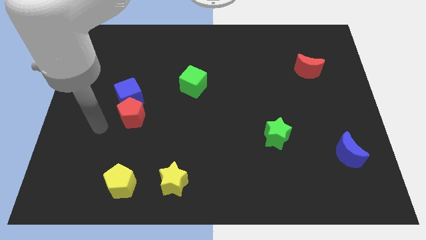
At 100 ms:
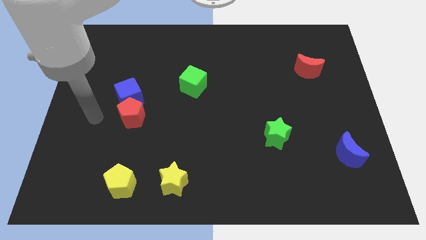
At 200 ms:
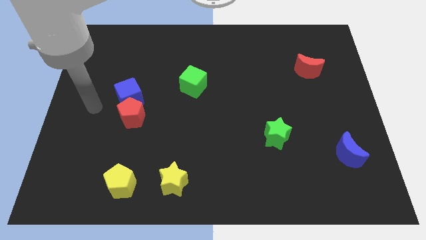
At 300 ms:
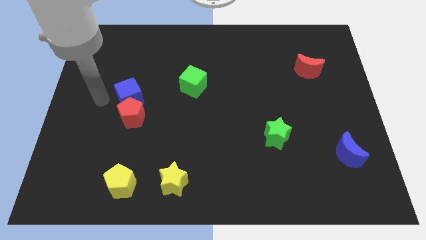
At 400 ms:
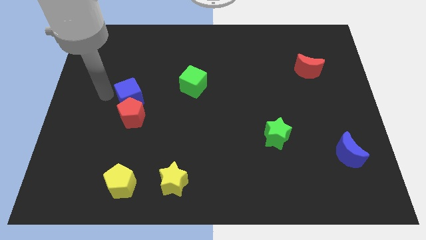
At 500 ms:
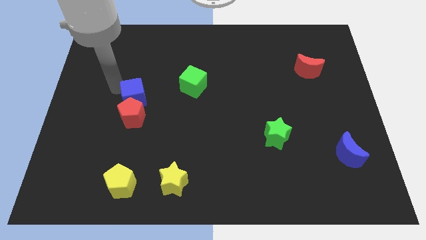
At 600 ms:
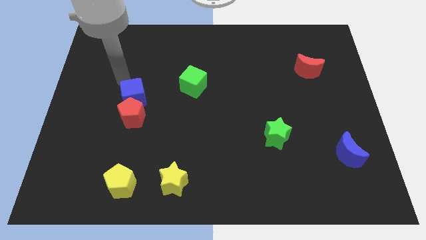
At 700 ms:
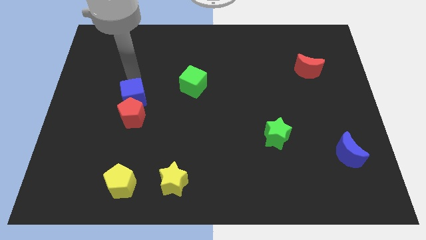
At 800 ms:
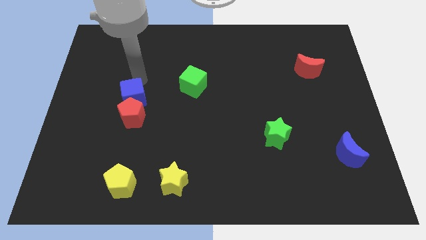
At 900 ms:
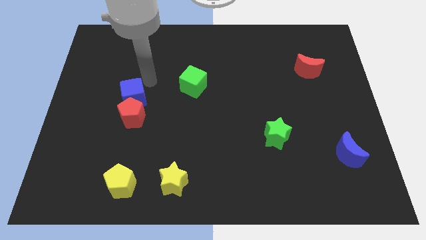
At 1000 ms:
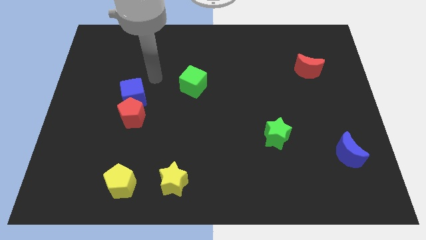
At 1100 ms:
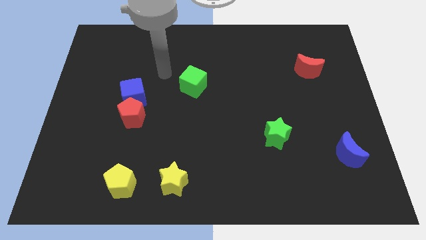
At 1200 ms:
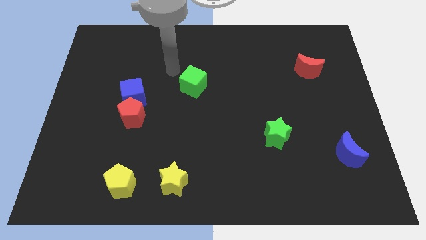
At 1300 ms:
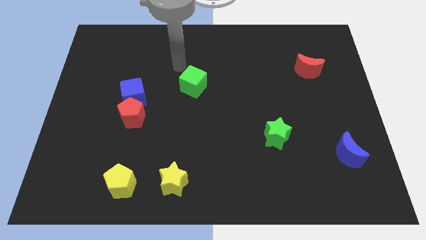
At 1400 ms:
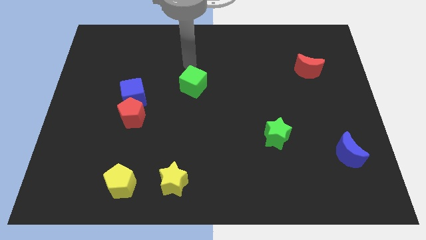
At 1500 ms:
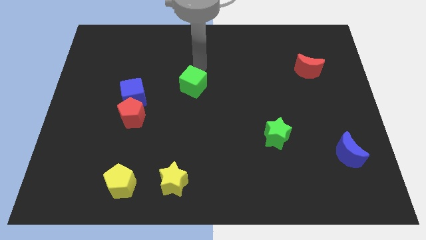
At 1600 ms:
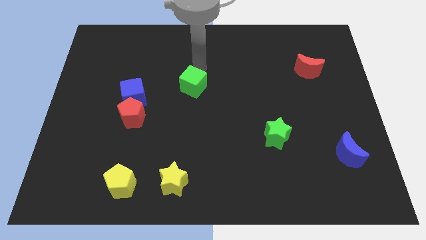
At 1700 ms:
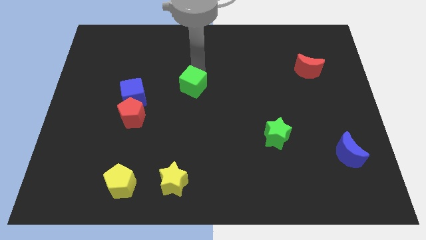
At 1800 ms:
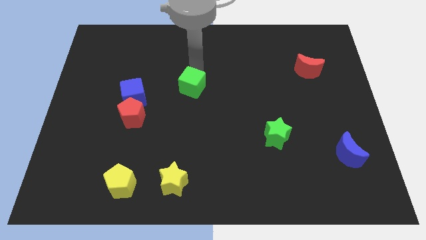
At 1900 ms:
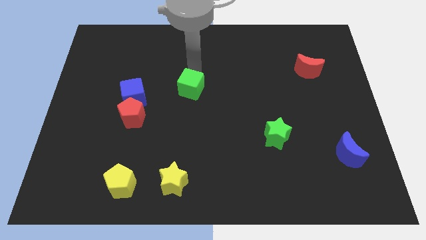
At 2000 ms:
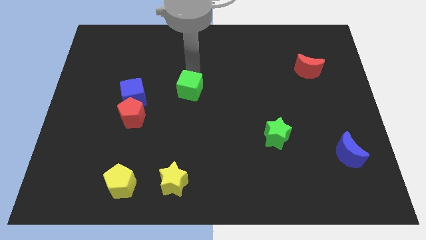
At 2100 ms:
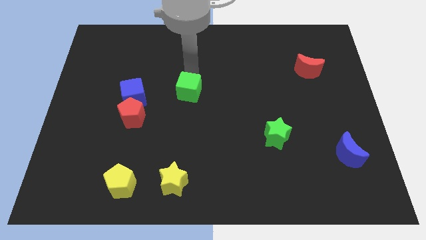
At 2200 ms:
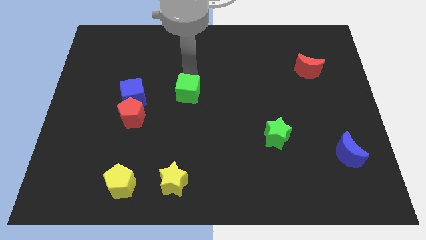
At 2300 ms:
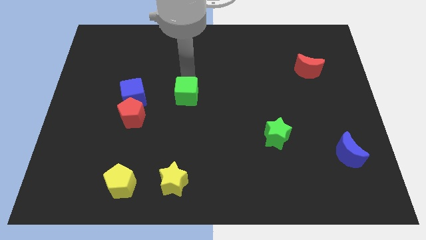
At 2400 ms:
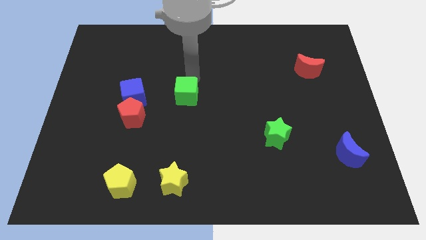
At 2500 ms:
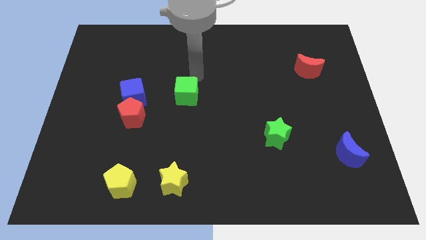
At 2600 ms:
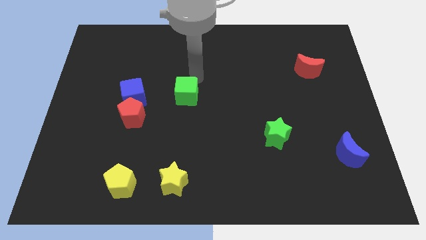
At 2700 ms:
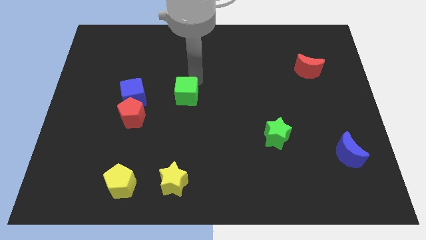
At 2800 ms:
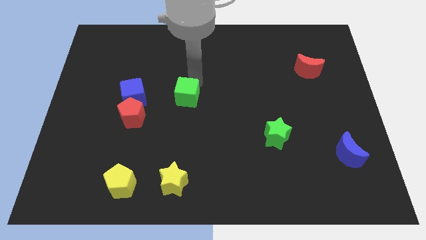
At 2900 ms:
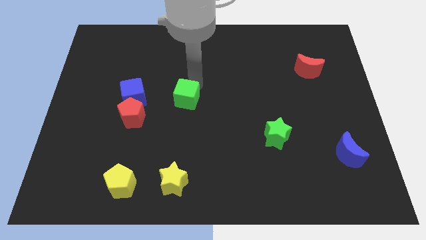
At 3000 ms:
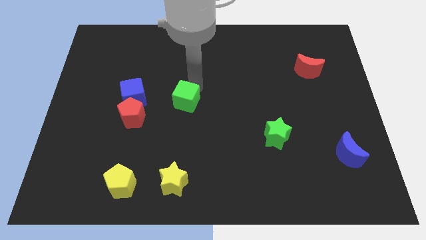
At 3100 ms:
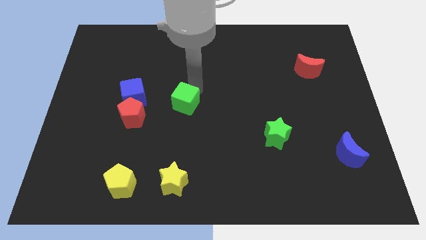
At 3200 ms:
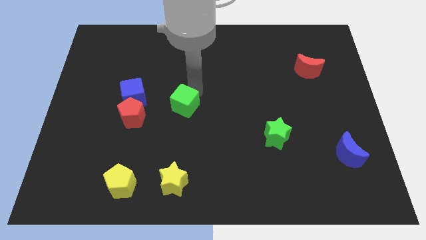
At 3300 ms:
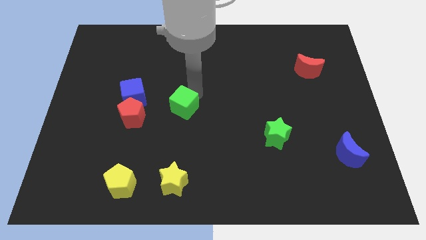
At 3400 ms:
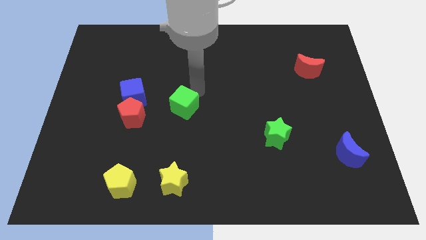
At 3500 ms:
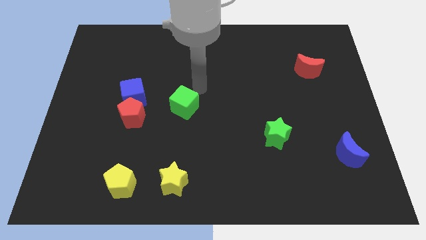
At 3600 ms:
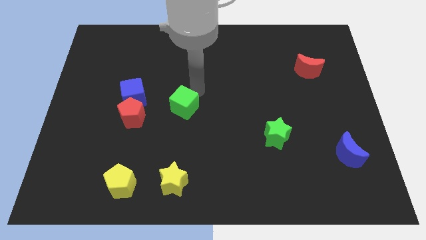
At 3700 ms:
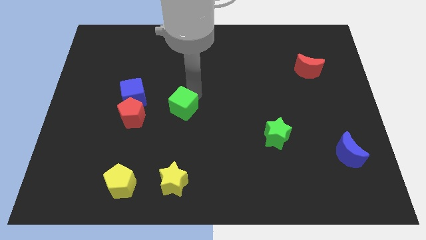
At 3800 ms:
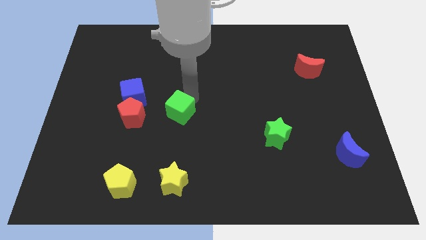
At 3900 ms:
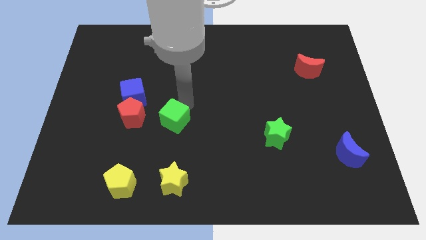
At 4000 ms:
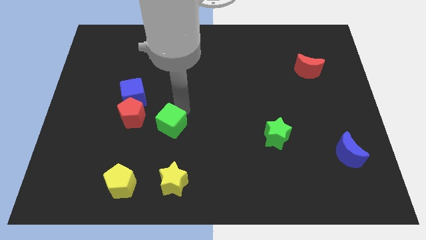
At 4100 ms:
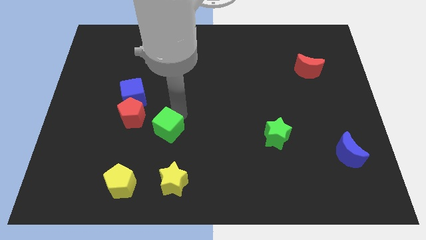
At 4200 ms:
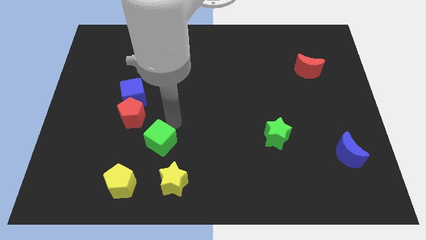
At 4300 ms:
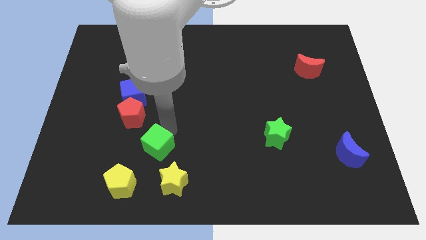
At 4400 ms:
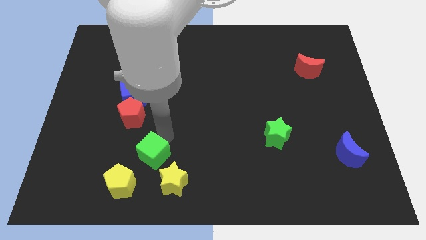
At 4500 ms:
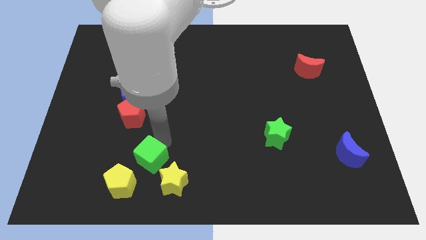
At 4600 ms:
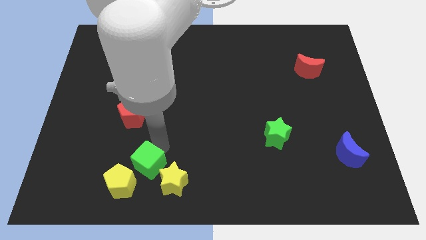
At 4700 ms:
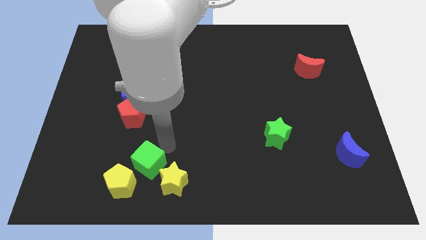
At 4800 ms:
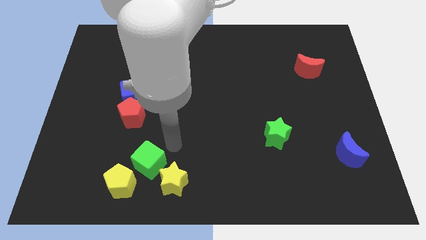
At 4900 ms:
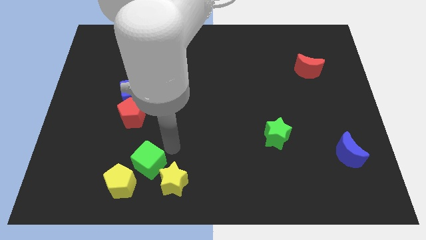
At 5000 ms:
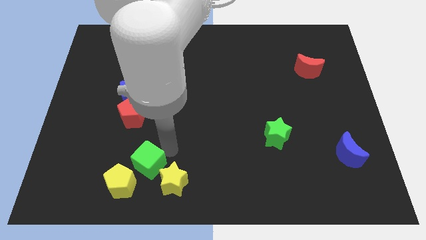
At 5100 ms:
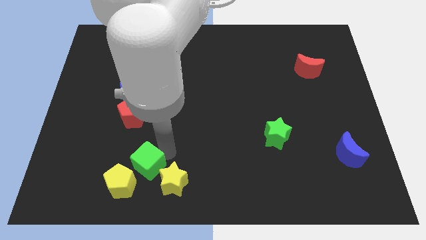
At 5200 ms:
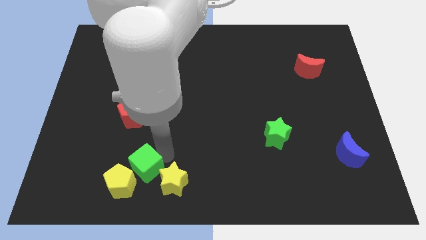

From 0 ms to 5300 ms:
move the green cube next to the yellow pentagon

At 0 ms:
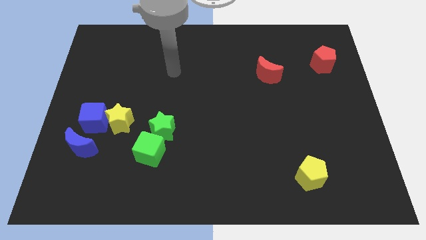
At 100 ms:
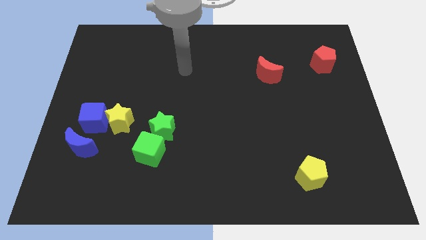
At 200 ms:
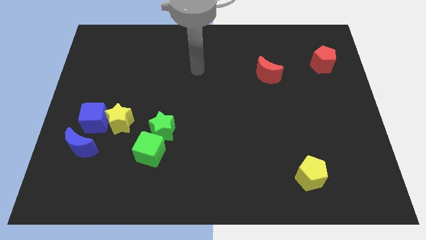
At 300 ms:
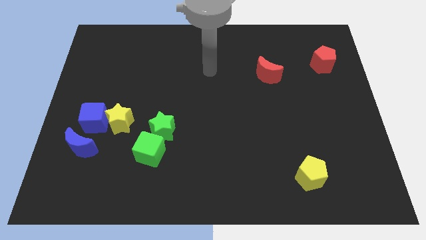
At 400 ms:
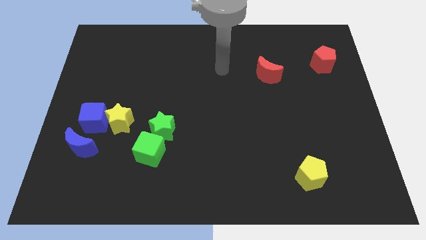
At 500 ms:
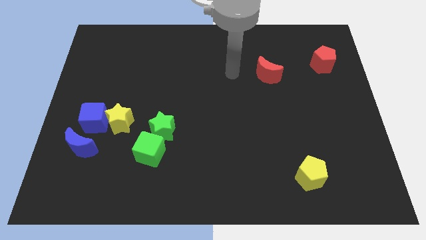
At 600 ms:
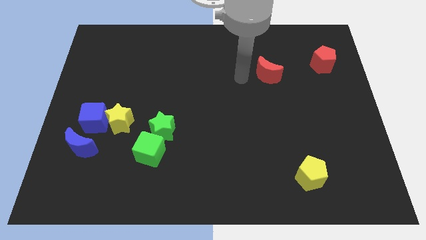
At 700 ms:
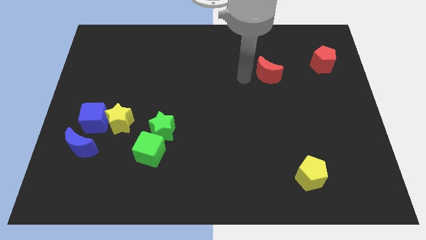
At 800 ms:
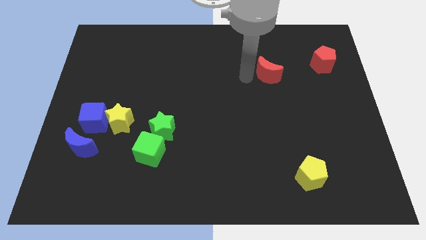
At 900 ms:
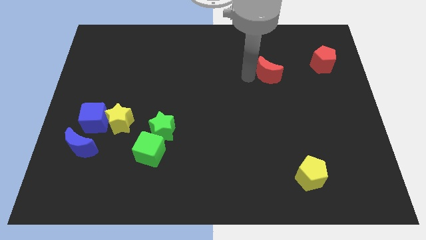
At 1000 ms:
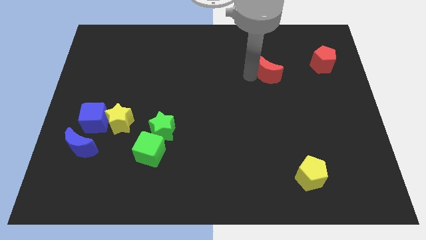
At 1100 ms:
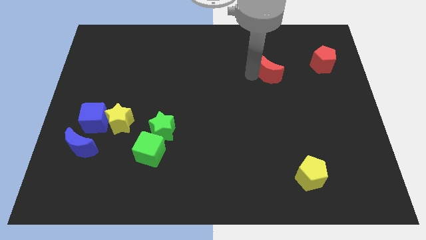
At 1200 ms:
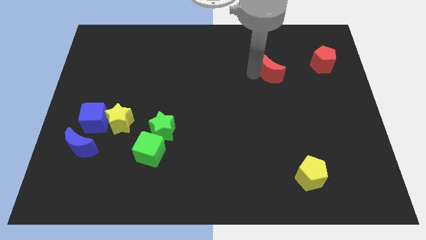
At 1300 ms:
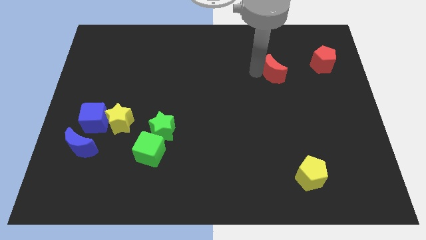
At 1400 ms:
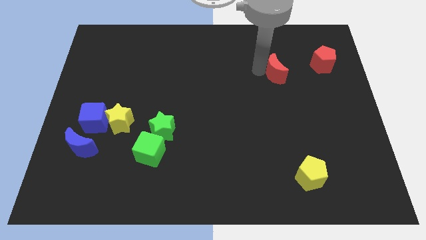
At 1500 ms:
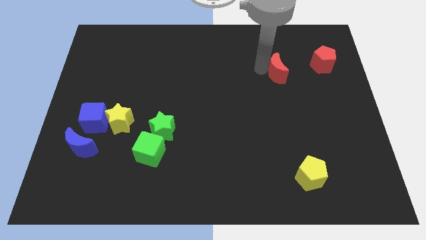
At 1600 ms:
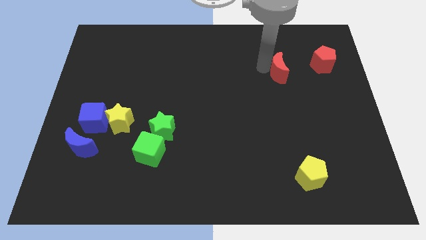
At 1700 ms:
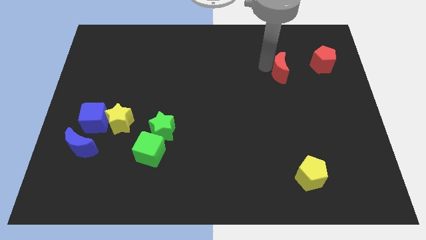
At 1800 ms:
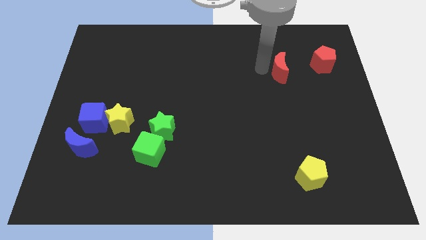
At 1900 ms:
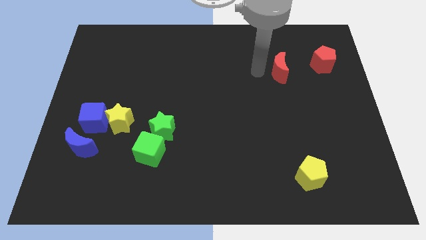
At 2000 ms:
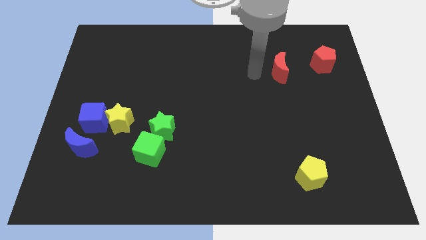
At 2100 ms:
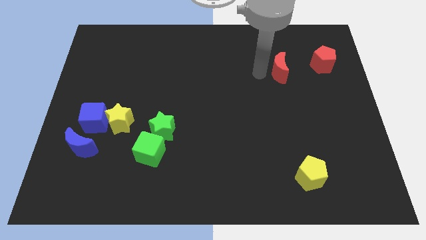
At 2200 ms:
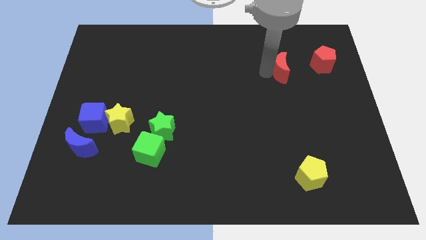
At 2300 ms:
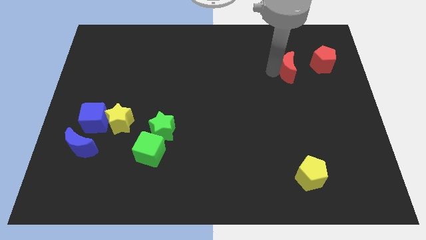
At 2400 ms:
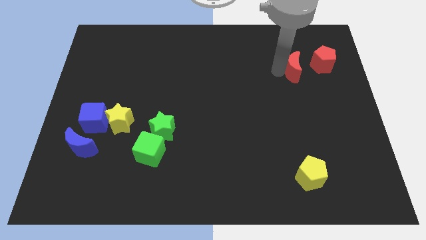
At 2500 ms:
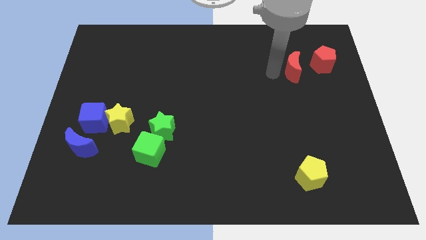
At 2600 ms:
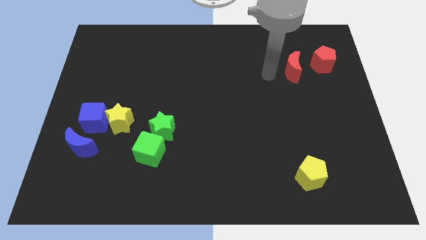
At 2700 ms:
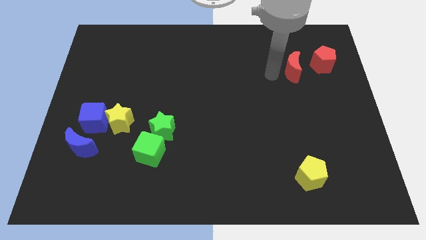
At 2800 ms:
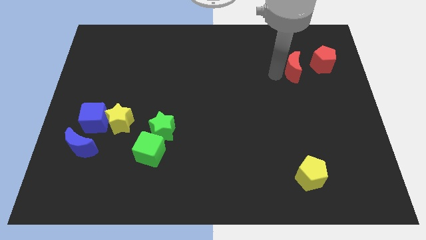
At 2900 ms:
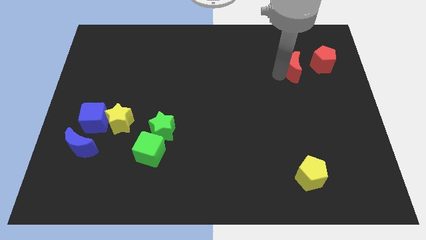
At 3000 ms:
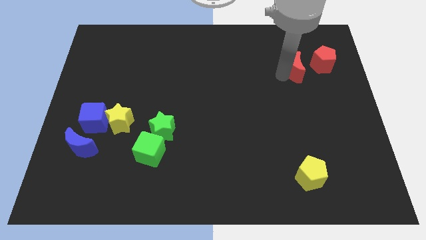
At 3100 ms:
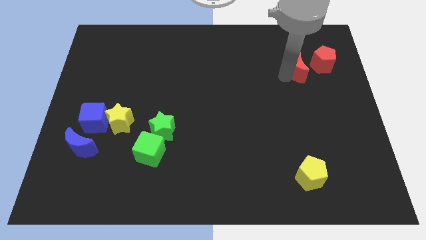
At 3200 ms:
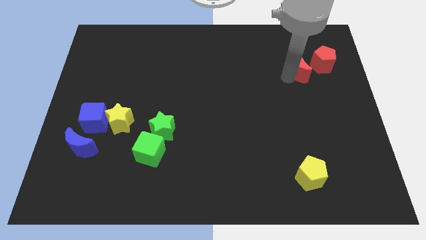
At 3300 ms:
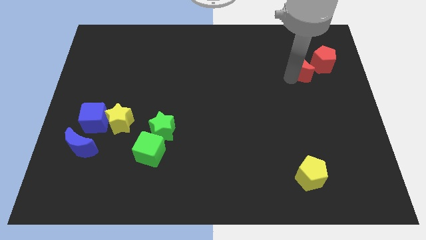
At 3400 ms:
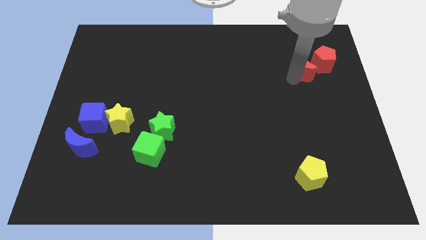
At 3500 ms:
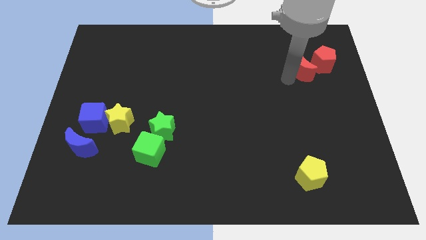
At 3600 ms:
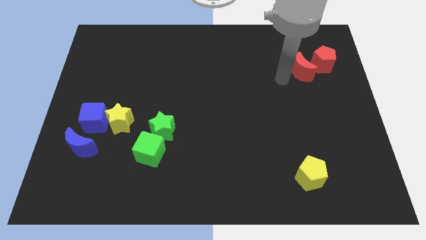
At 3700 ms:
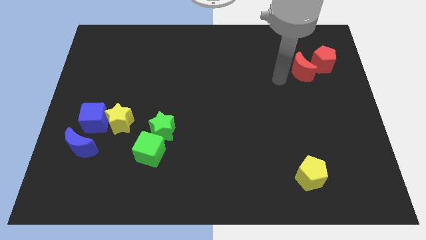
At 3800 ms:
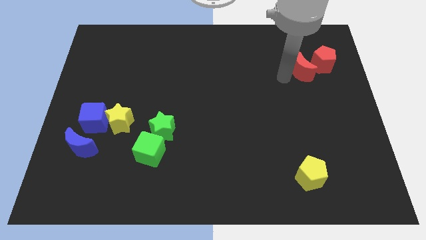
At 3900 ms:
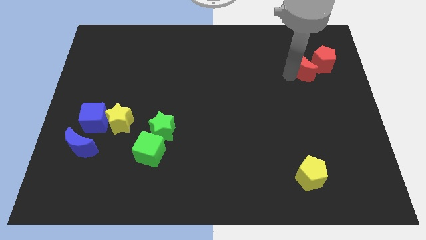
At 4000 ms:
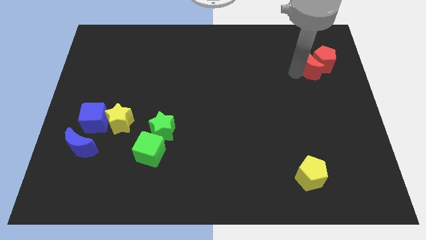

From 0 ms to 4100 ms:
move the red moon to the red pentagon
